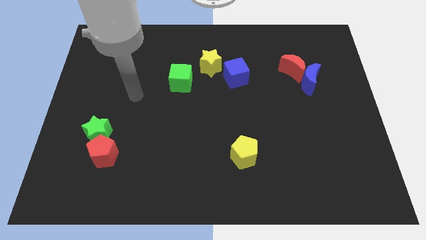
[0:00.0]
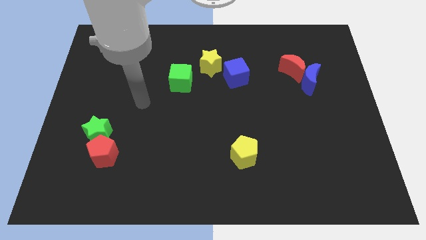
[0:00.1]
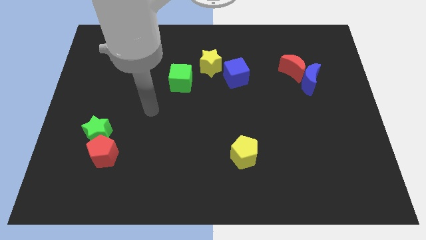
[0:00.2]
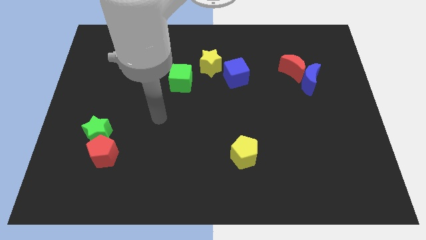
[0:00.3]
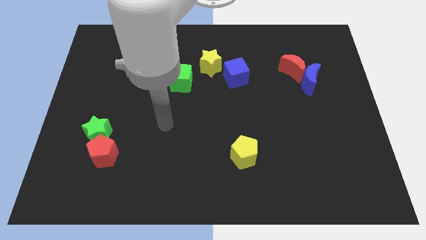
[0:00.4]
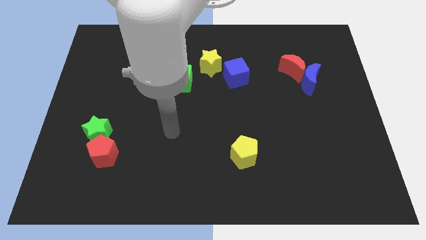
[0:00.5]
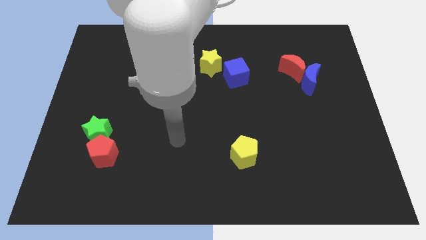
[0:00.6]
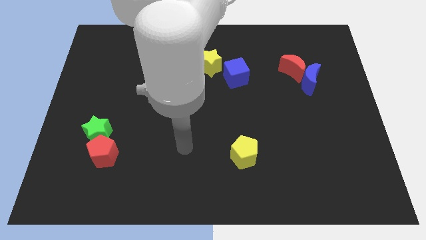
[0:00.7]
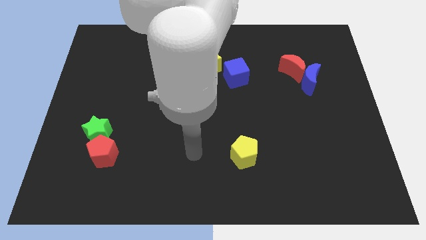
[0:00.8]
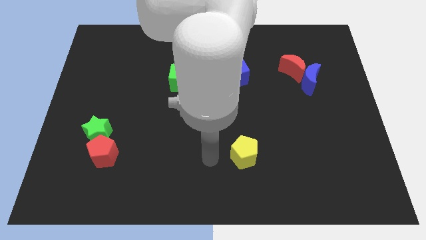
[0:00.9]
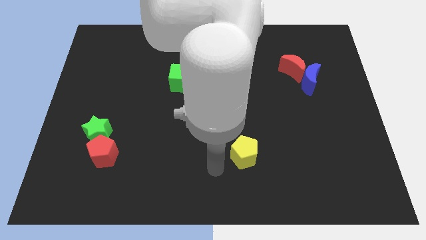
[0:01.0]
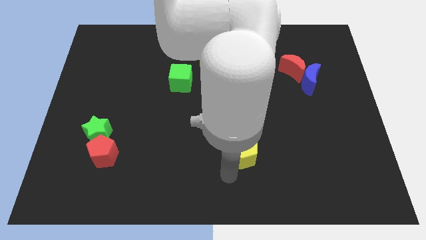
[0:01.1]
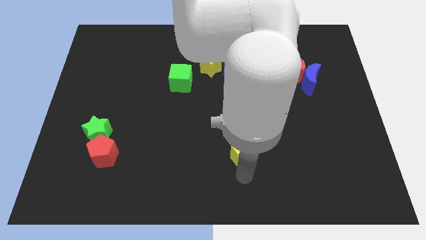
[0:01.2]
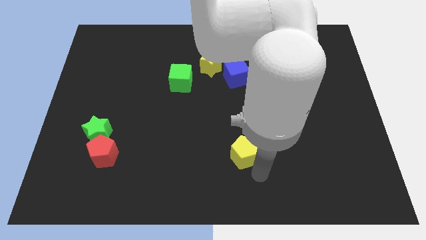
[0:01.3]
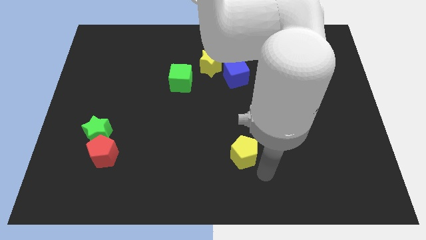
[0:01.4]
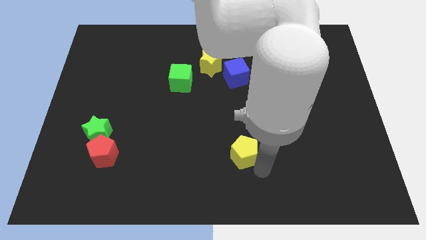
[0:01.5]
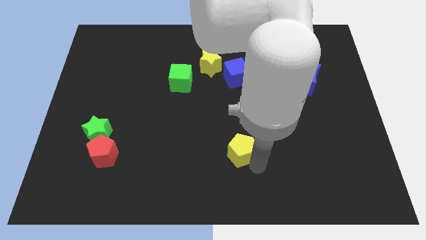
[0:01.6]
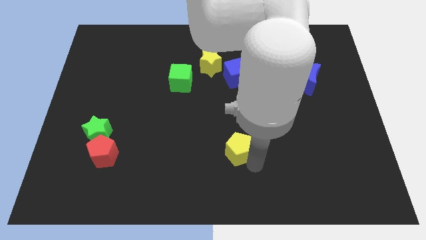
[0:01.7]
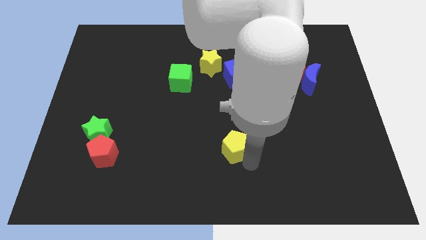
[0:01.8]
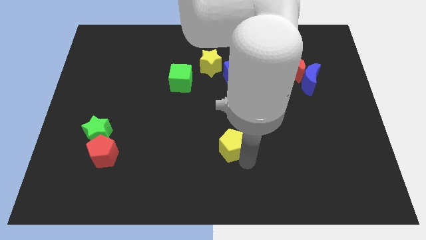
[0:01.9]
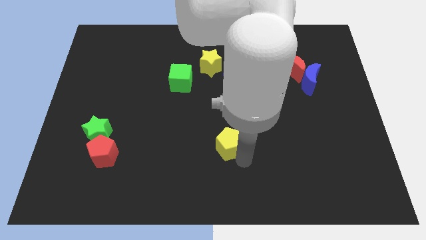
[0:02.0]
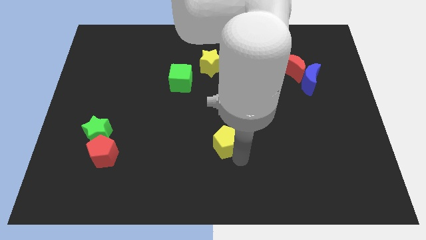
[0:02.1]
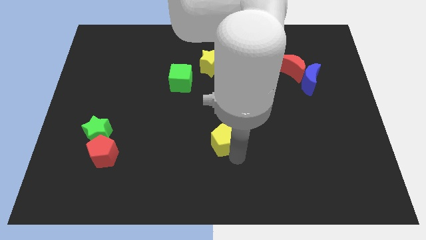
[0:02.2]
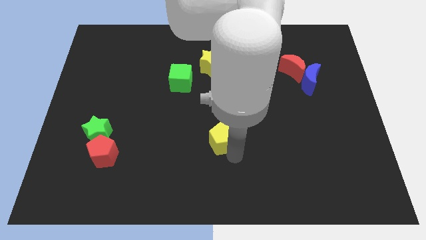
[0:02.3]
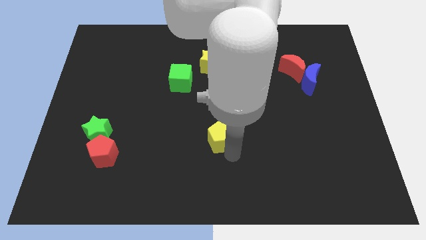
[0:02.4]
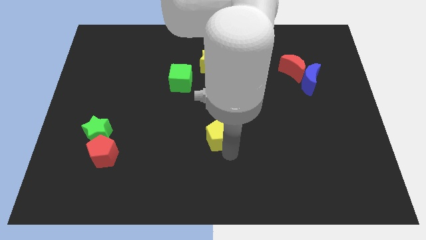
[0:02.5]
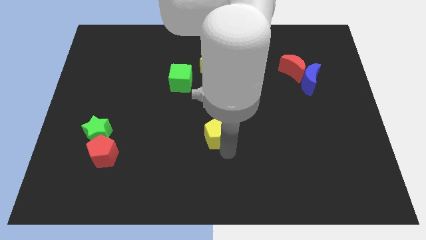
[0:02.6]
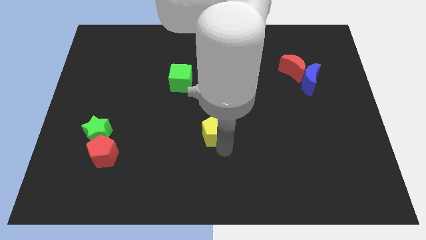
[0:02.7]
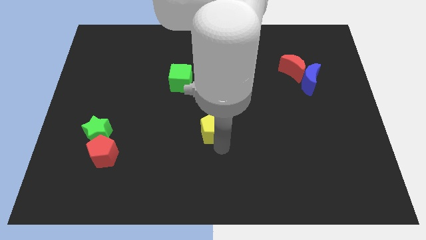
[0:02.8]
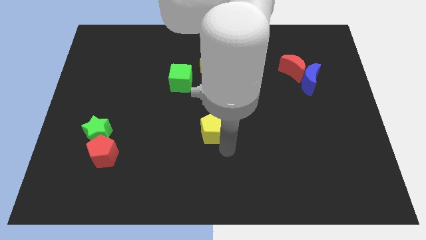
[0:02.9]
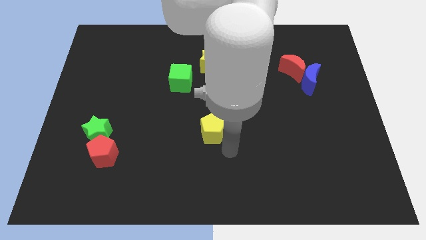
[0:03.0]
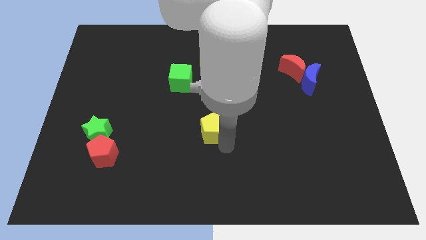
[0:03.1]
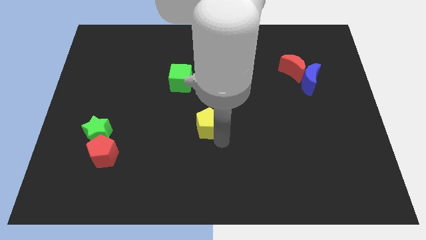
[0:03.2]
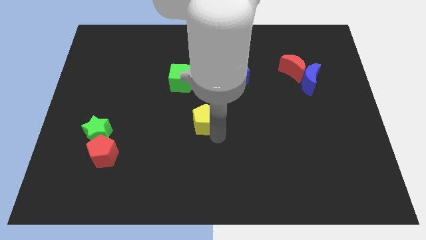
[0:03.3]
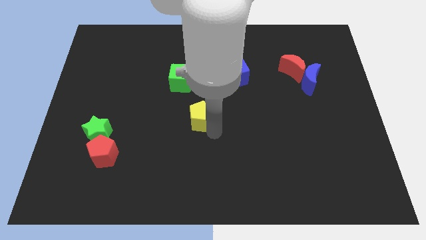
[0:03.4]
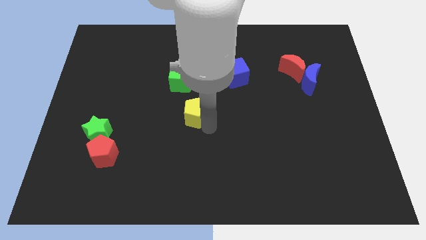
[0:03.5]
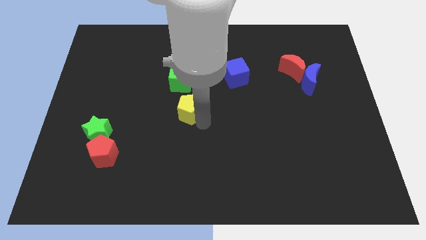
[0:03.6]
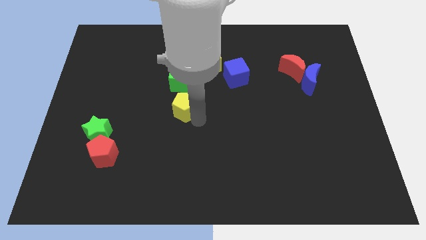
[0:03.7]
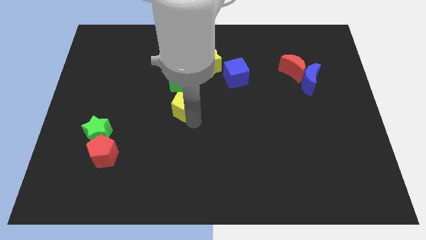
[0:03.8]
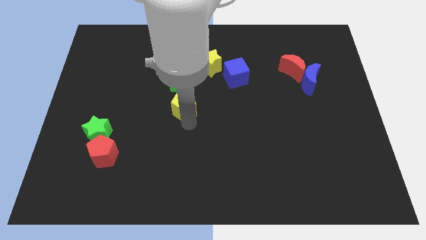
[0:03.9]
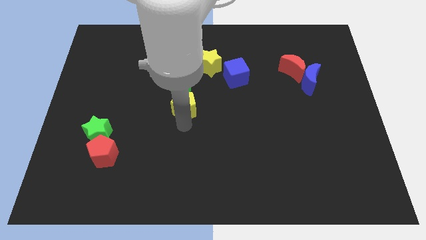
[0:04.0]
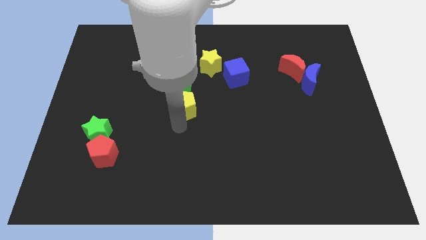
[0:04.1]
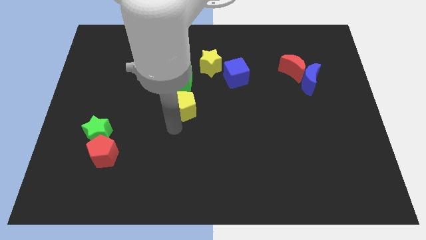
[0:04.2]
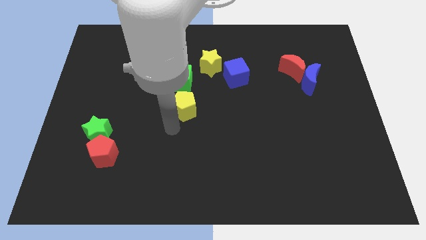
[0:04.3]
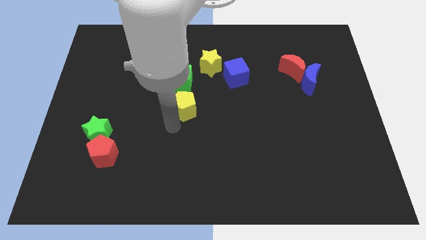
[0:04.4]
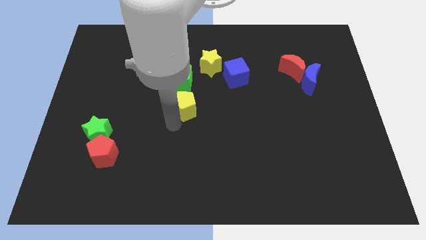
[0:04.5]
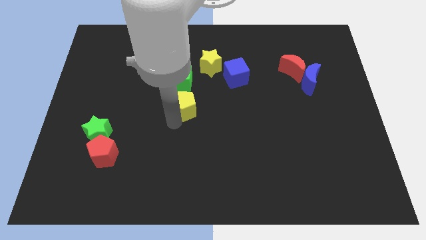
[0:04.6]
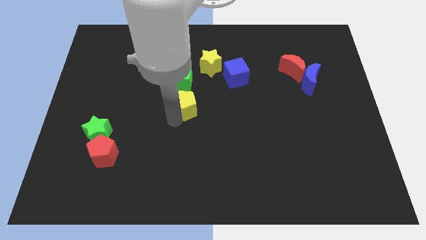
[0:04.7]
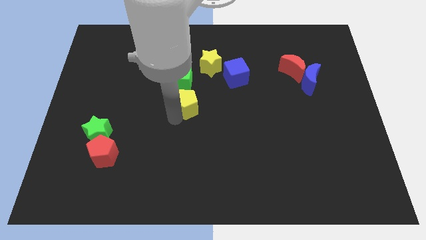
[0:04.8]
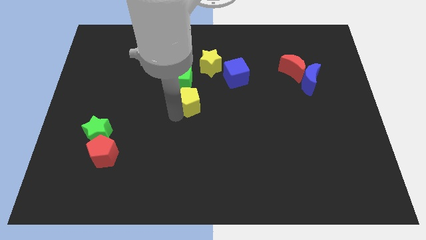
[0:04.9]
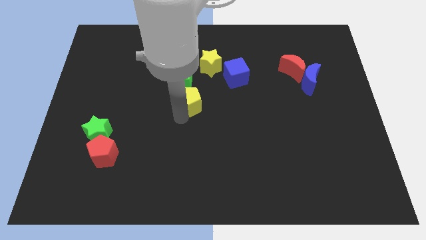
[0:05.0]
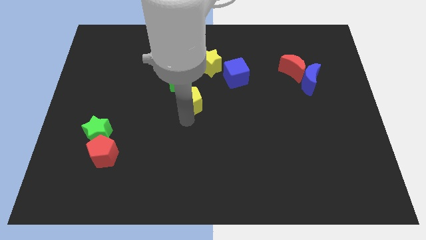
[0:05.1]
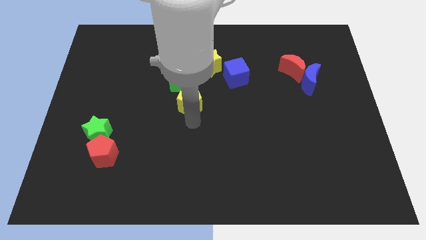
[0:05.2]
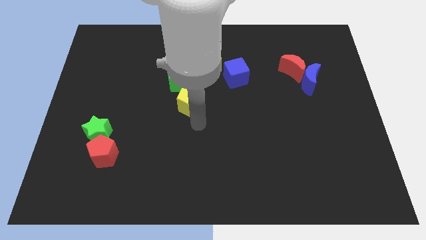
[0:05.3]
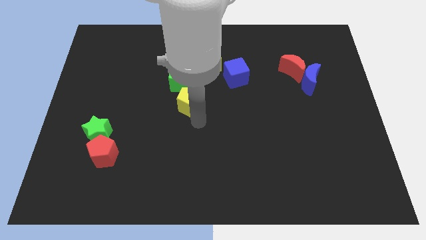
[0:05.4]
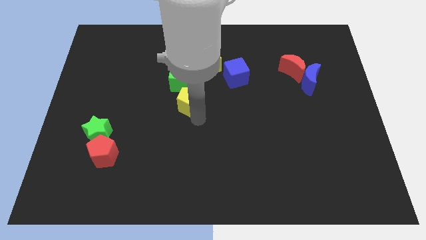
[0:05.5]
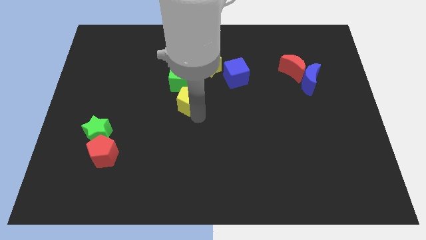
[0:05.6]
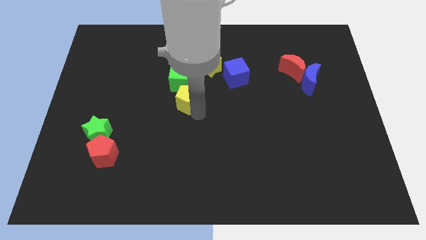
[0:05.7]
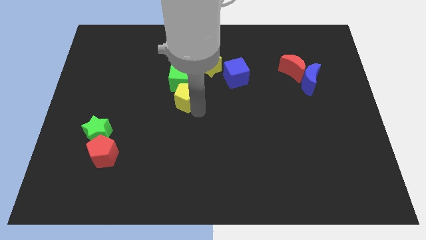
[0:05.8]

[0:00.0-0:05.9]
move the yellow pentagon next to the green cube
